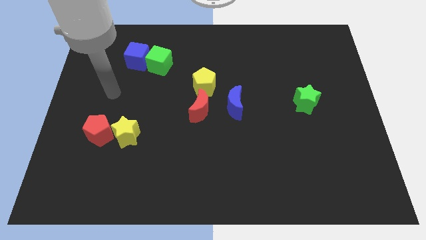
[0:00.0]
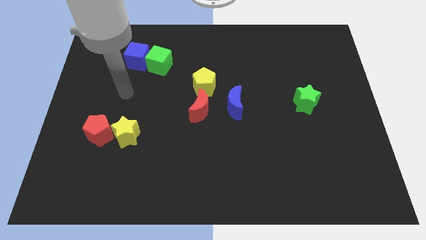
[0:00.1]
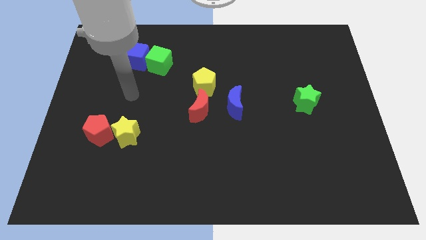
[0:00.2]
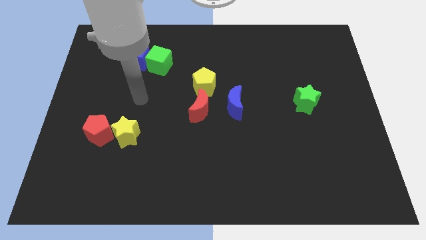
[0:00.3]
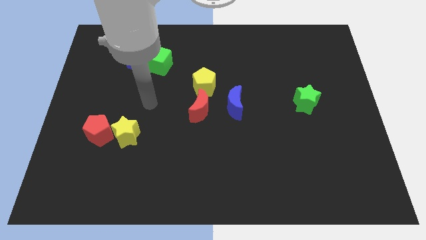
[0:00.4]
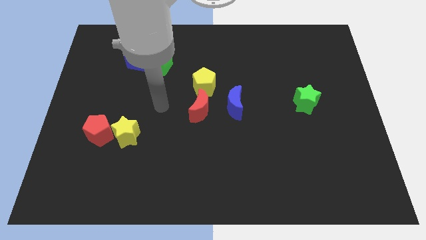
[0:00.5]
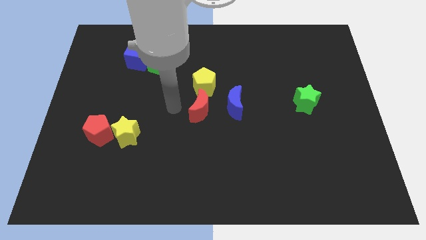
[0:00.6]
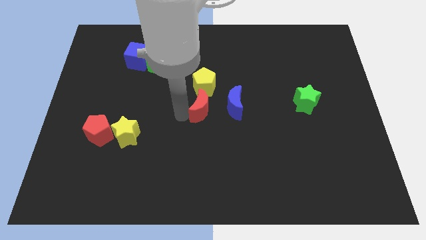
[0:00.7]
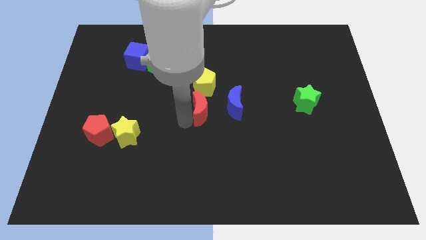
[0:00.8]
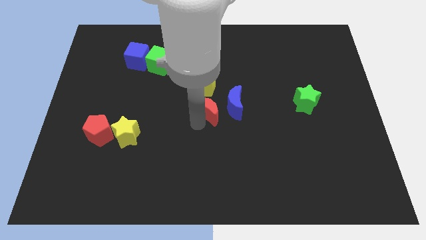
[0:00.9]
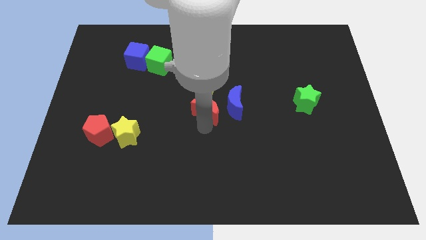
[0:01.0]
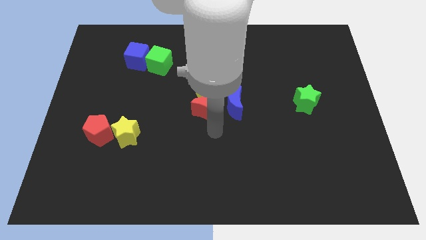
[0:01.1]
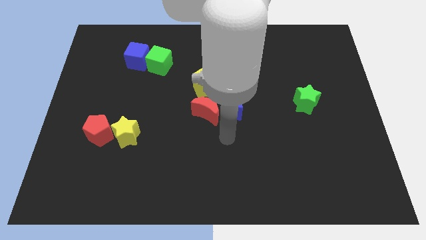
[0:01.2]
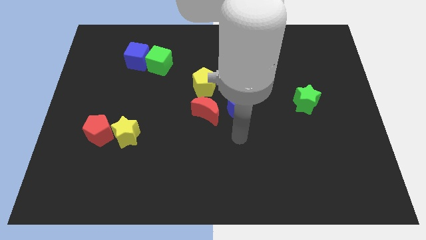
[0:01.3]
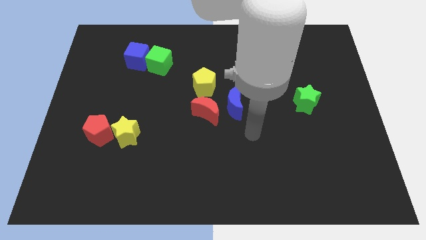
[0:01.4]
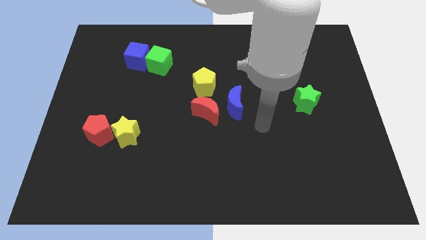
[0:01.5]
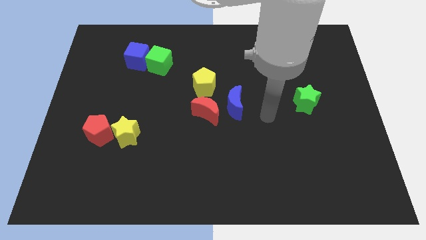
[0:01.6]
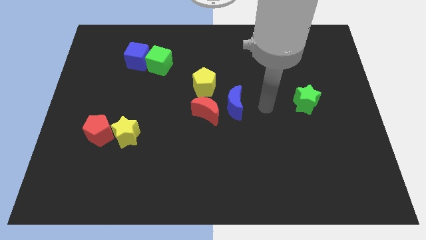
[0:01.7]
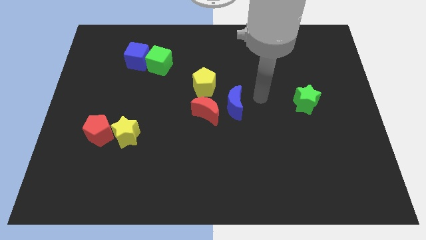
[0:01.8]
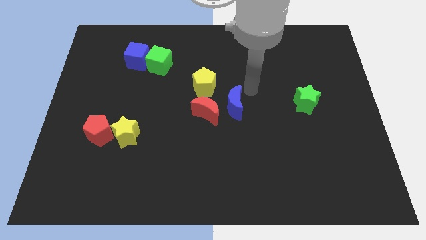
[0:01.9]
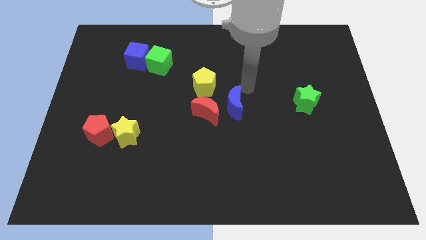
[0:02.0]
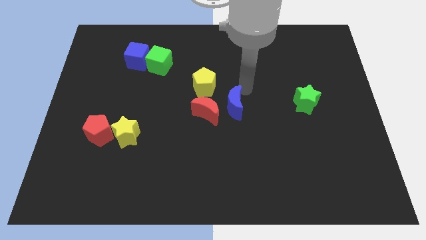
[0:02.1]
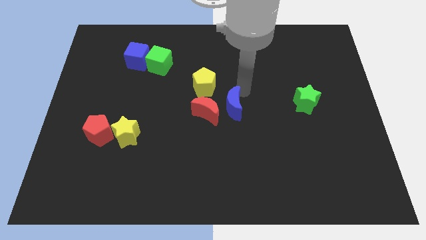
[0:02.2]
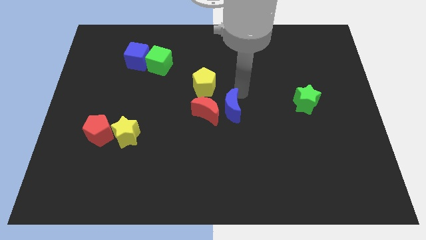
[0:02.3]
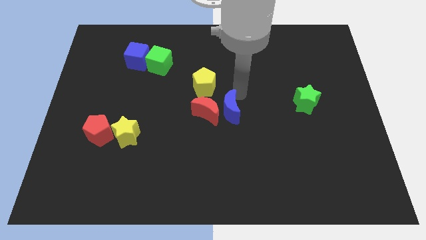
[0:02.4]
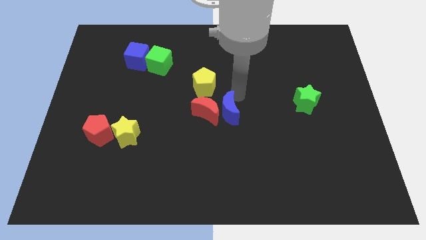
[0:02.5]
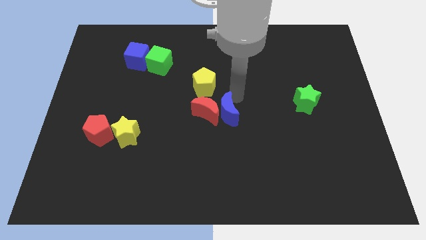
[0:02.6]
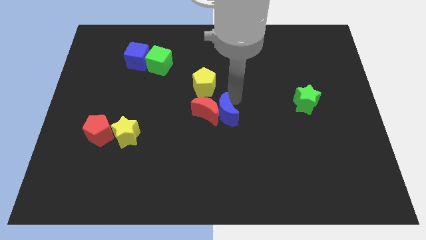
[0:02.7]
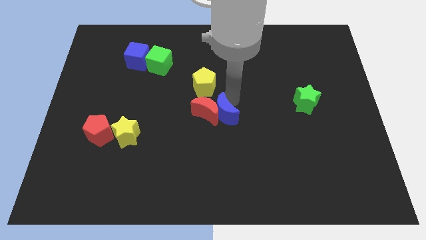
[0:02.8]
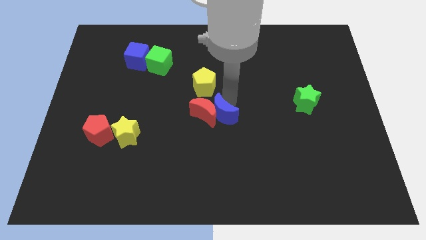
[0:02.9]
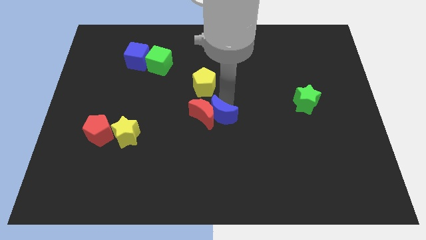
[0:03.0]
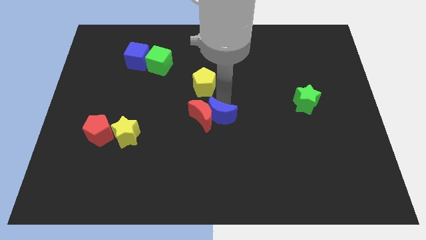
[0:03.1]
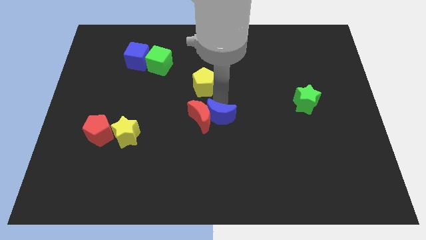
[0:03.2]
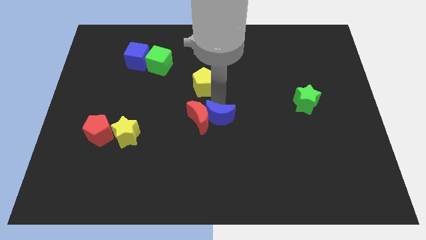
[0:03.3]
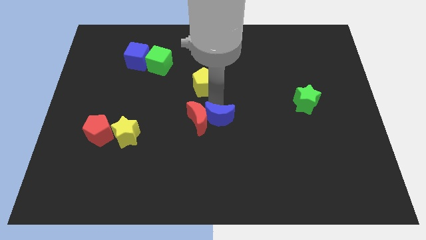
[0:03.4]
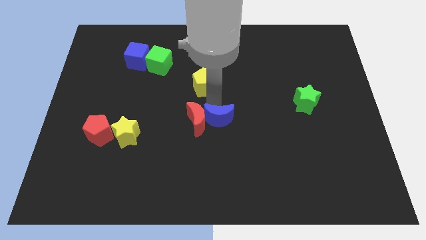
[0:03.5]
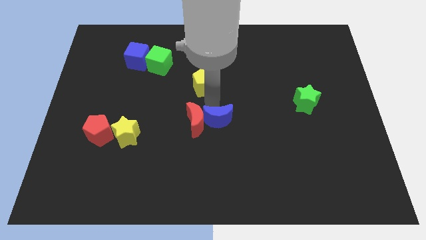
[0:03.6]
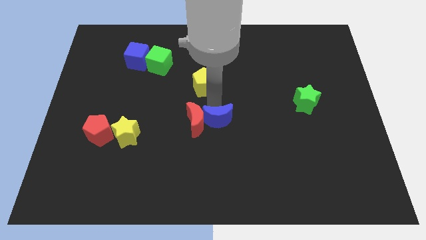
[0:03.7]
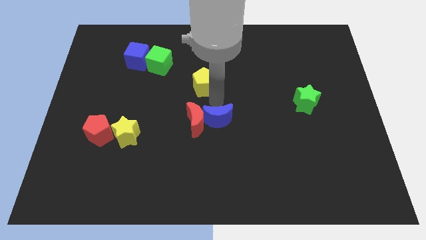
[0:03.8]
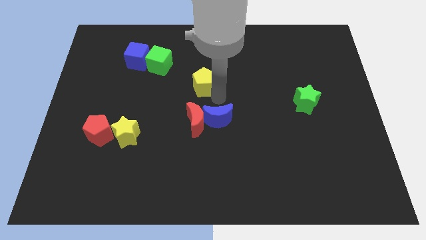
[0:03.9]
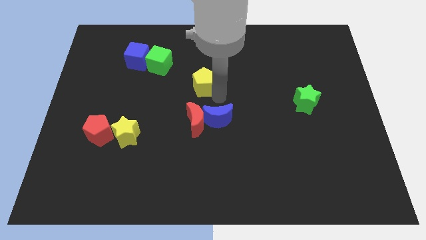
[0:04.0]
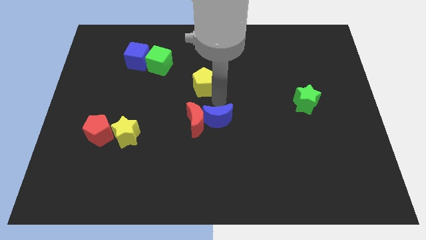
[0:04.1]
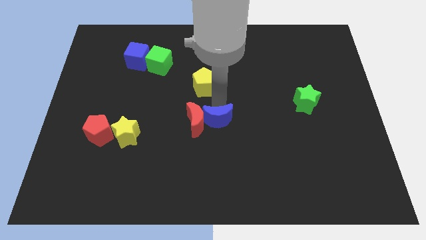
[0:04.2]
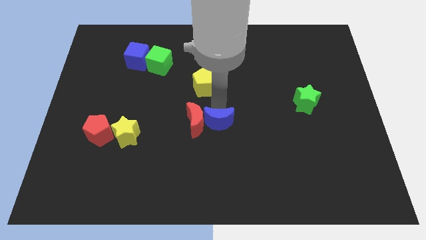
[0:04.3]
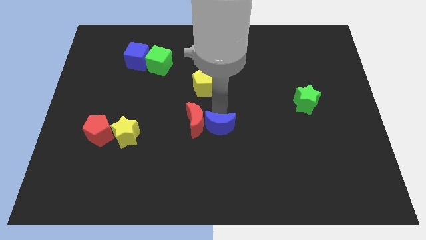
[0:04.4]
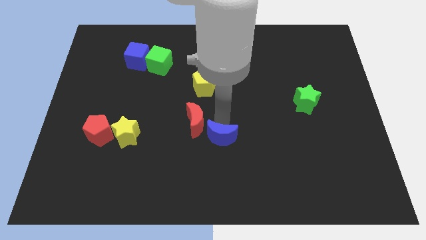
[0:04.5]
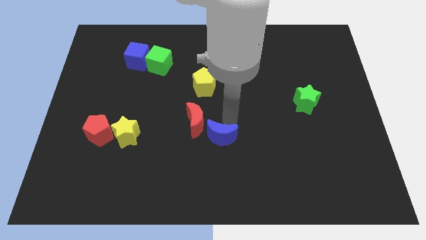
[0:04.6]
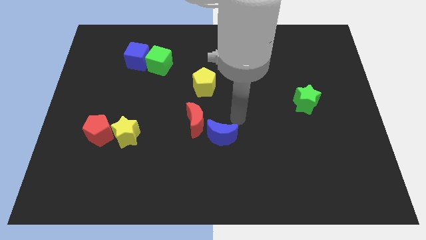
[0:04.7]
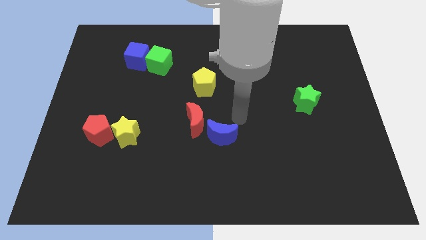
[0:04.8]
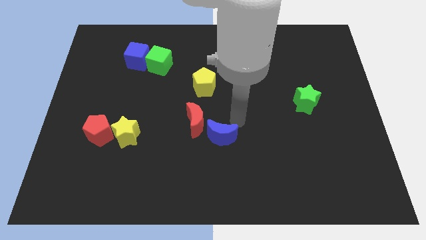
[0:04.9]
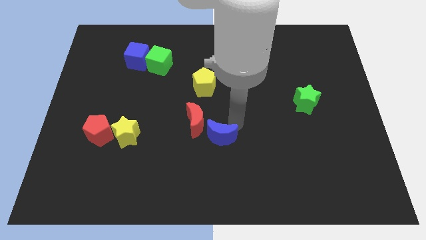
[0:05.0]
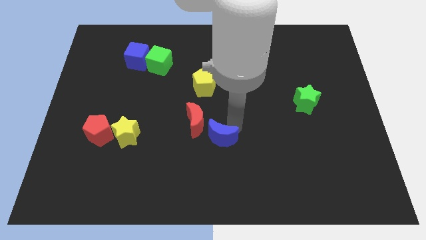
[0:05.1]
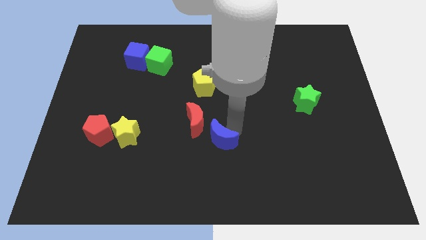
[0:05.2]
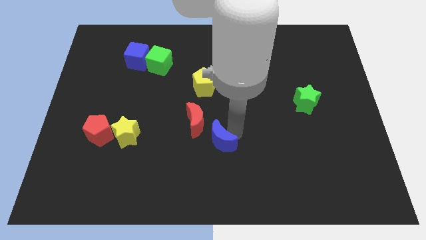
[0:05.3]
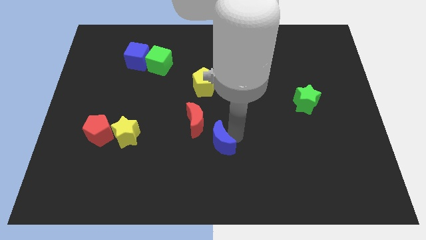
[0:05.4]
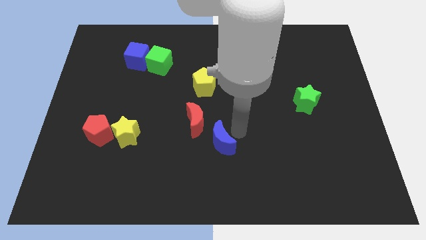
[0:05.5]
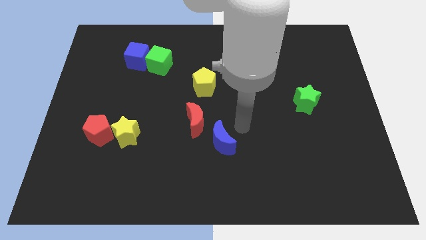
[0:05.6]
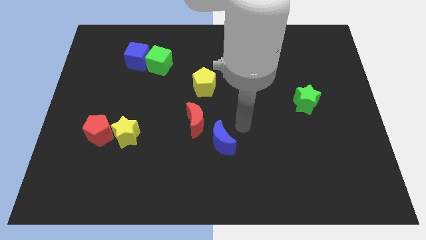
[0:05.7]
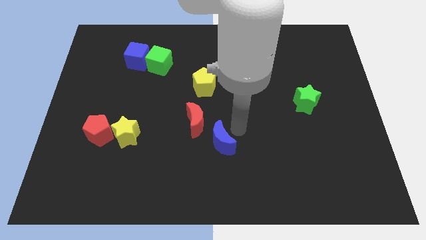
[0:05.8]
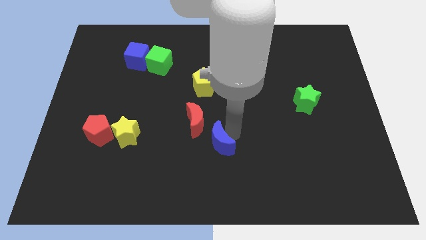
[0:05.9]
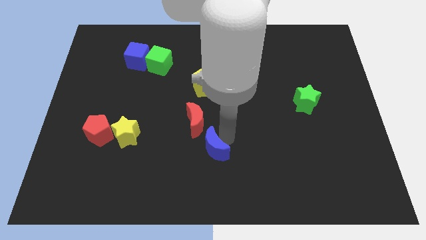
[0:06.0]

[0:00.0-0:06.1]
put the blue moon to the bottom side of the red moon

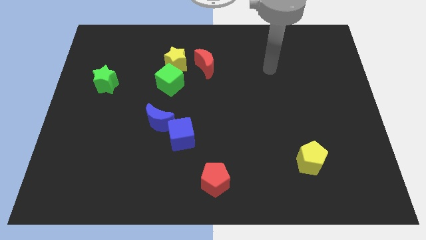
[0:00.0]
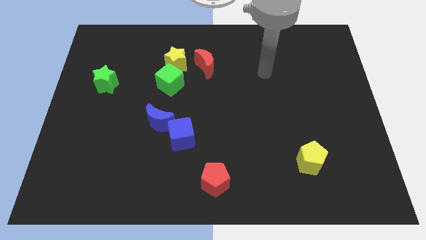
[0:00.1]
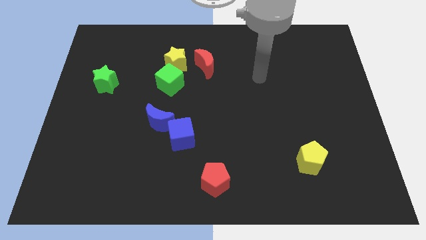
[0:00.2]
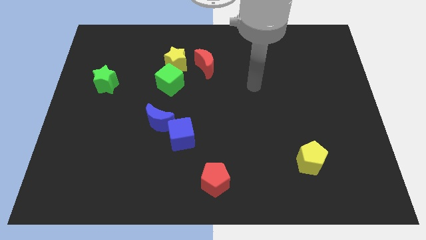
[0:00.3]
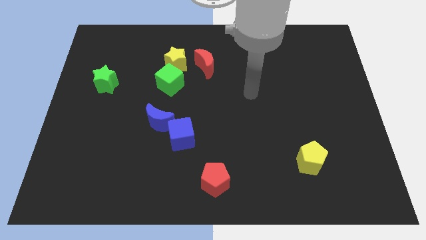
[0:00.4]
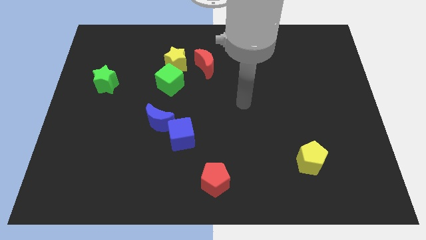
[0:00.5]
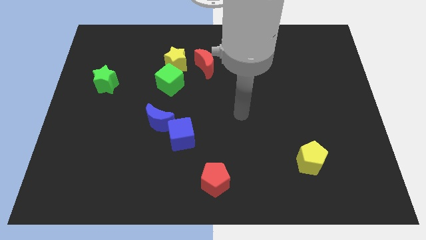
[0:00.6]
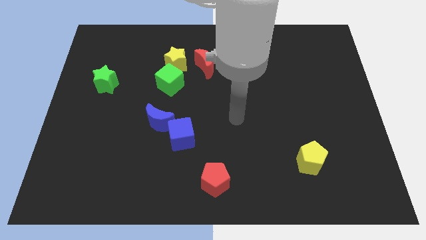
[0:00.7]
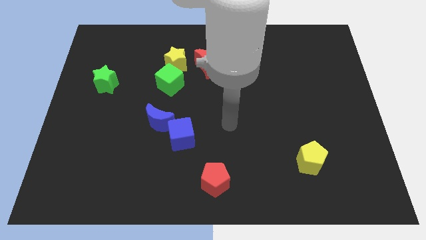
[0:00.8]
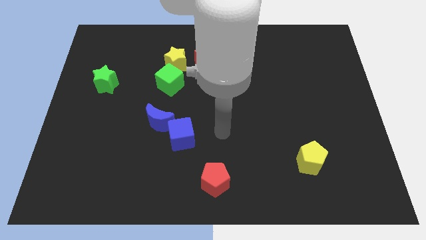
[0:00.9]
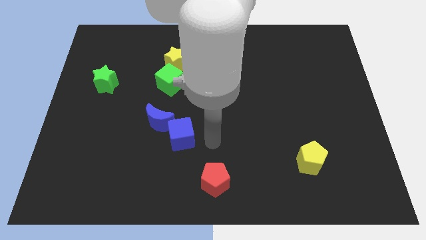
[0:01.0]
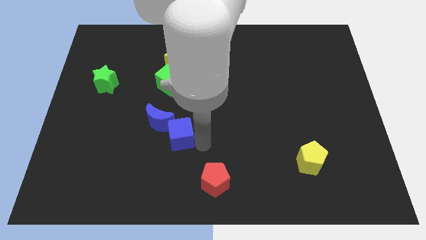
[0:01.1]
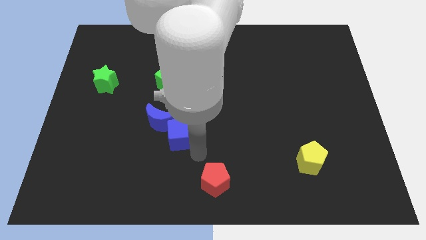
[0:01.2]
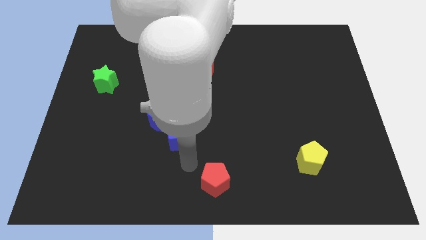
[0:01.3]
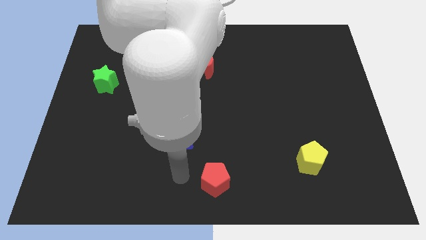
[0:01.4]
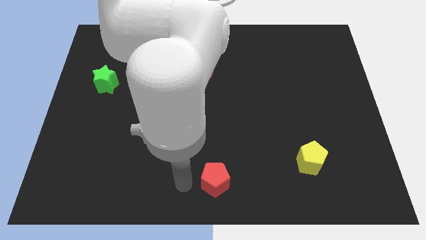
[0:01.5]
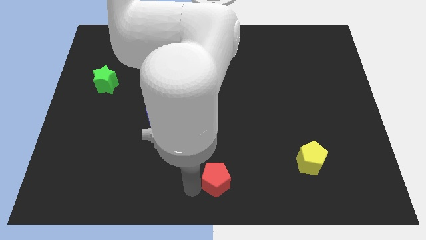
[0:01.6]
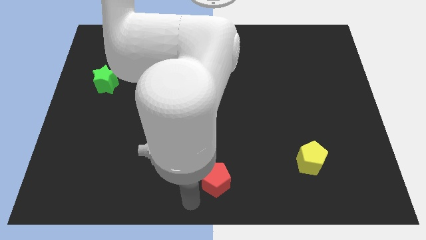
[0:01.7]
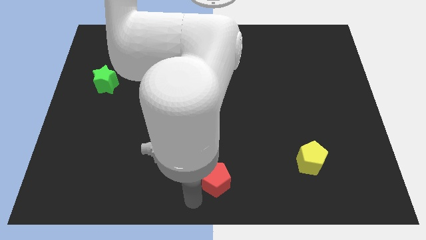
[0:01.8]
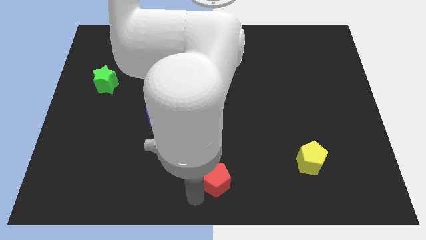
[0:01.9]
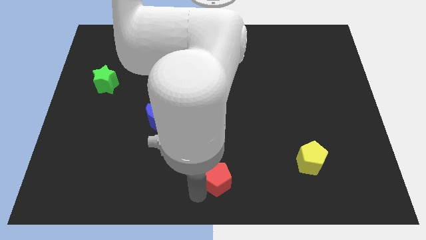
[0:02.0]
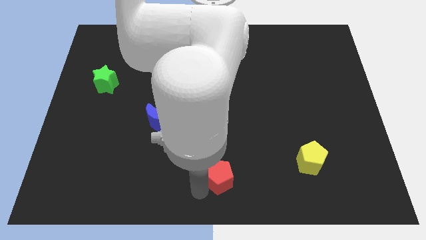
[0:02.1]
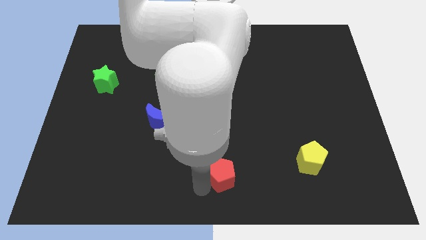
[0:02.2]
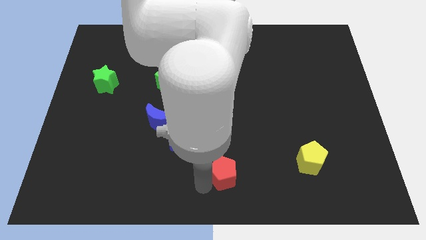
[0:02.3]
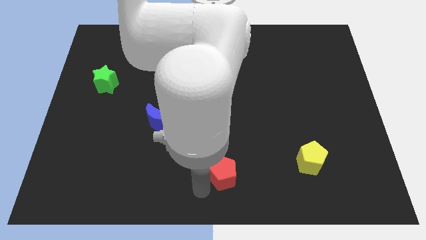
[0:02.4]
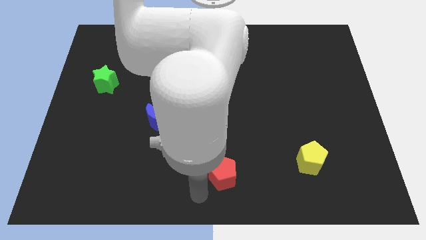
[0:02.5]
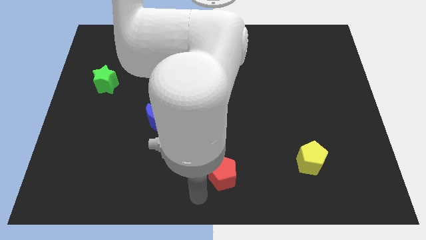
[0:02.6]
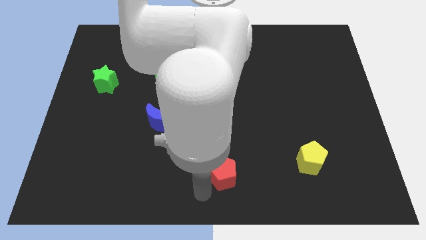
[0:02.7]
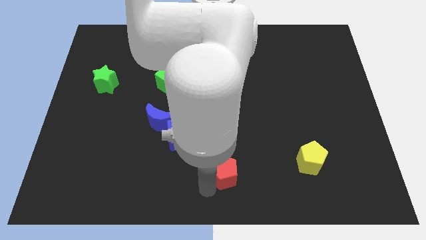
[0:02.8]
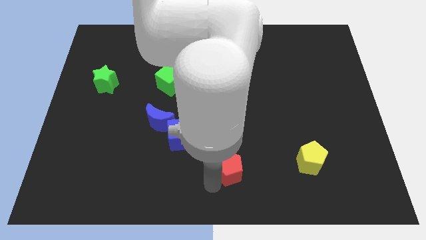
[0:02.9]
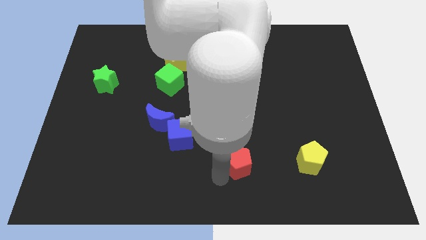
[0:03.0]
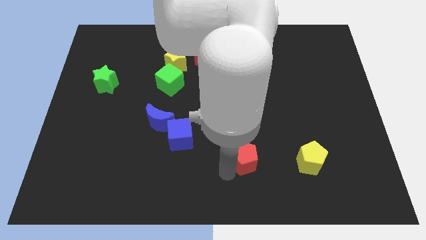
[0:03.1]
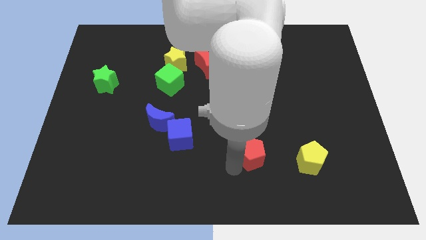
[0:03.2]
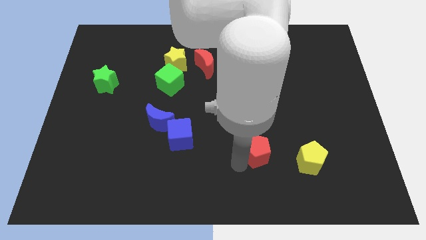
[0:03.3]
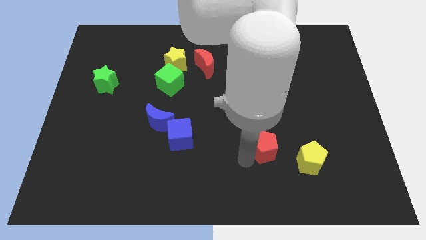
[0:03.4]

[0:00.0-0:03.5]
move the red pentagon diagonally up and to the left of the yellow pentagon
